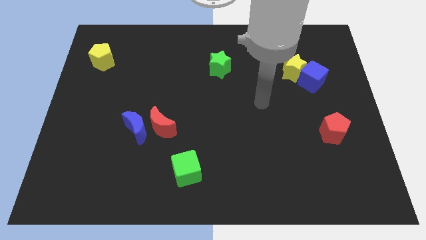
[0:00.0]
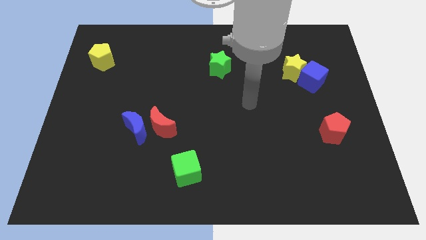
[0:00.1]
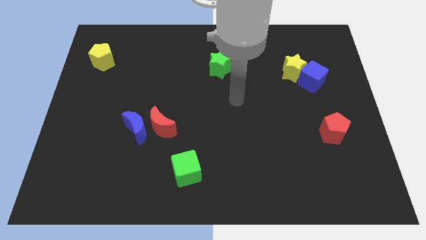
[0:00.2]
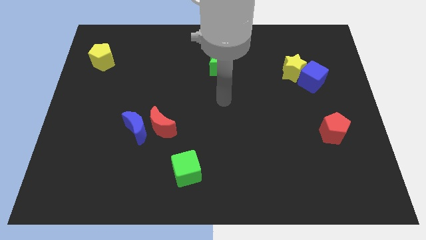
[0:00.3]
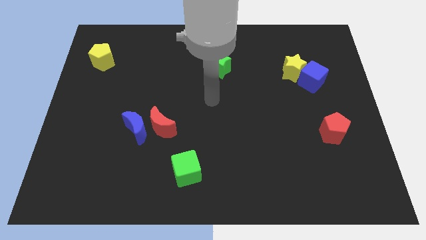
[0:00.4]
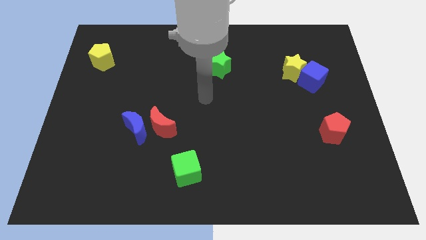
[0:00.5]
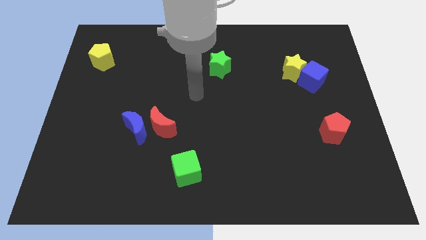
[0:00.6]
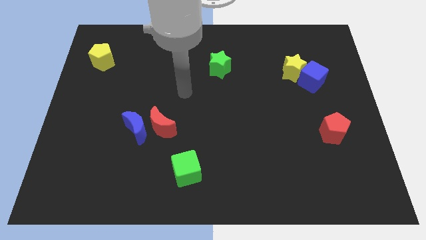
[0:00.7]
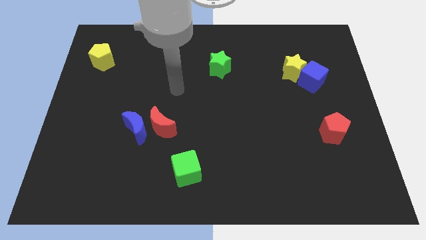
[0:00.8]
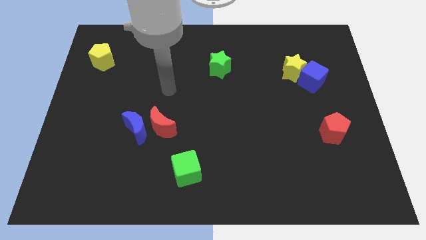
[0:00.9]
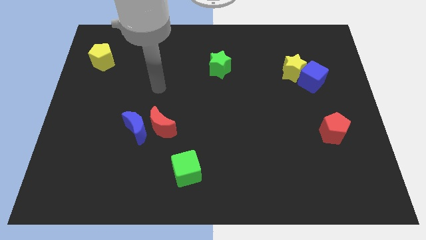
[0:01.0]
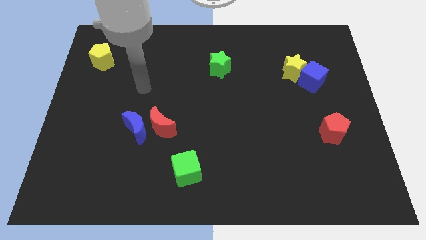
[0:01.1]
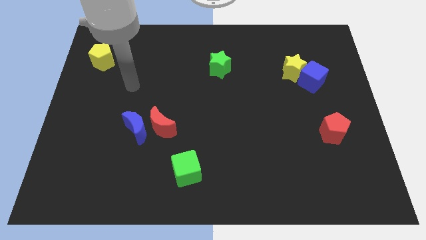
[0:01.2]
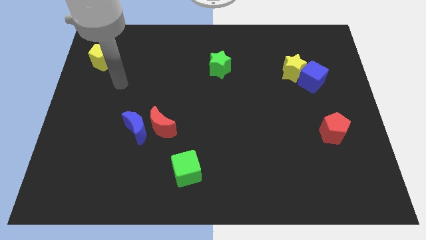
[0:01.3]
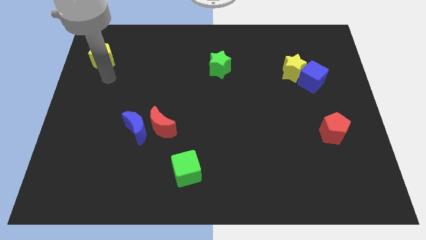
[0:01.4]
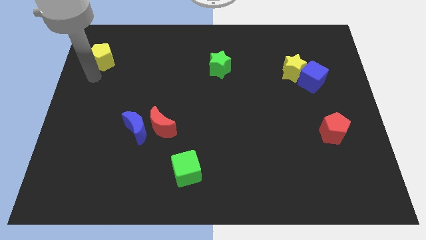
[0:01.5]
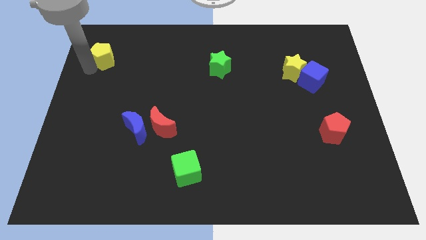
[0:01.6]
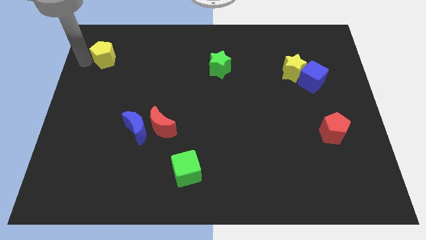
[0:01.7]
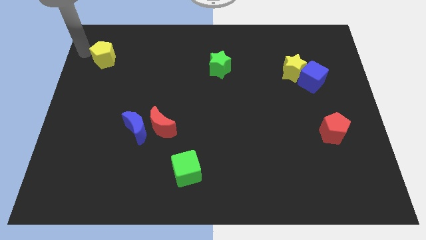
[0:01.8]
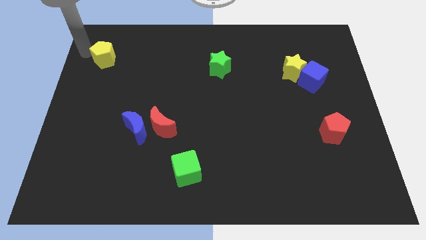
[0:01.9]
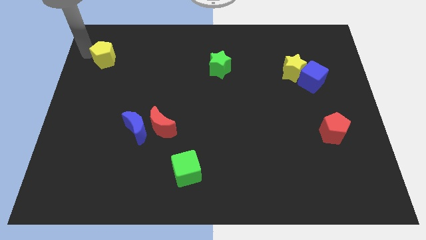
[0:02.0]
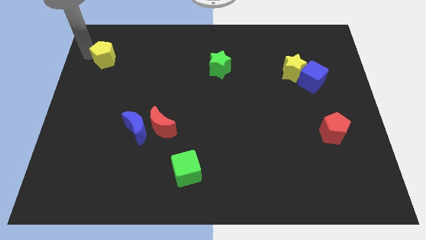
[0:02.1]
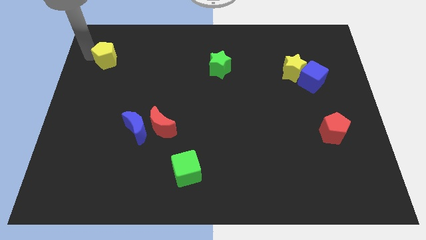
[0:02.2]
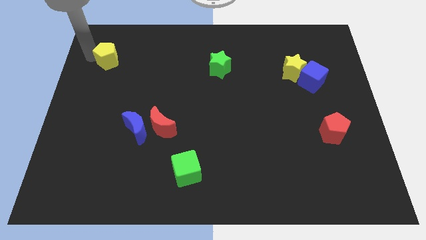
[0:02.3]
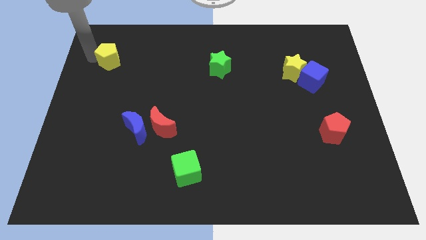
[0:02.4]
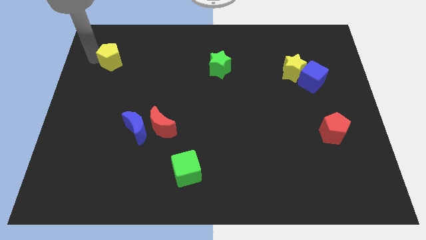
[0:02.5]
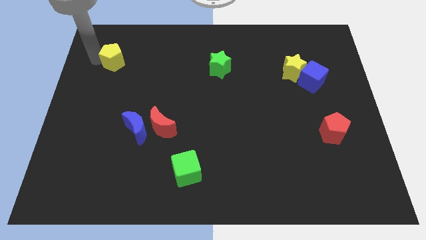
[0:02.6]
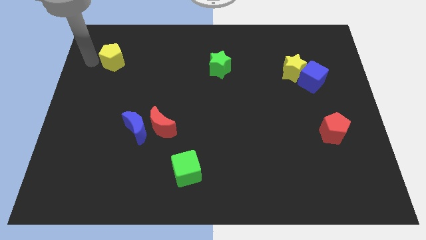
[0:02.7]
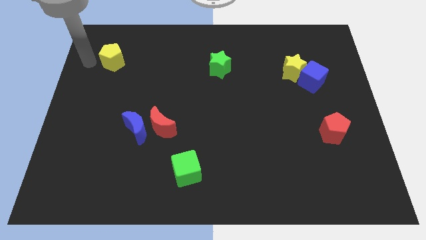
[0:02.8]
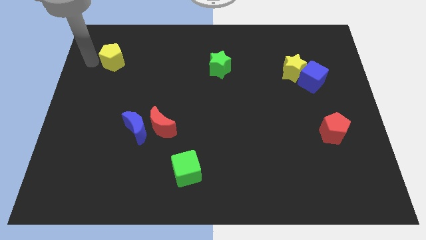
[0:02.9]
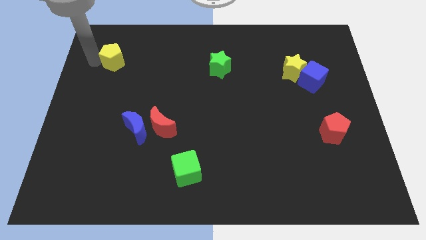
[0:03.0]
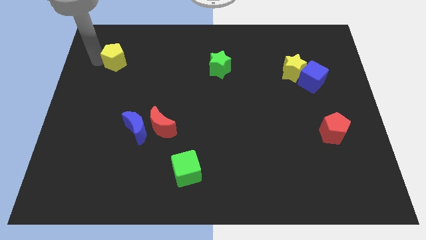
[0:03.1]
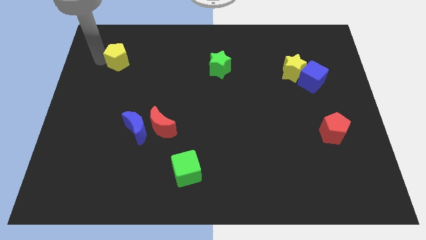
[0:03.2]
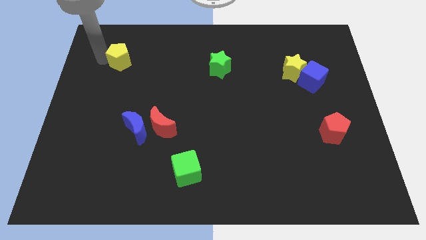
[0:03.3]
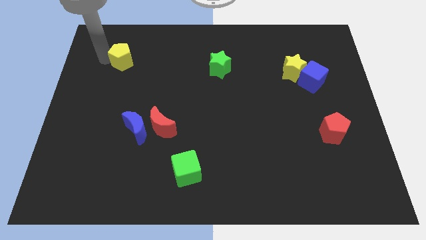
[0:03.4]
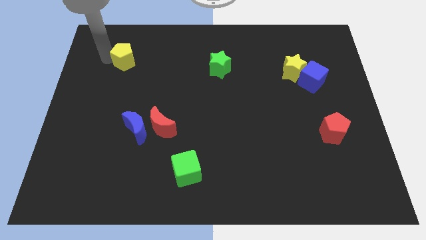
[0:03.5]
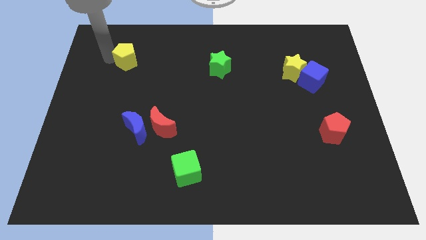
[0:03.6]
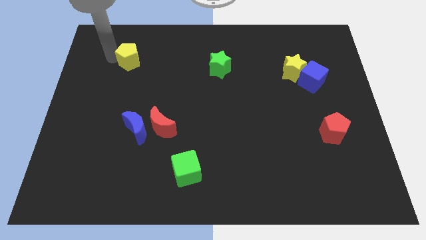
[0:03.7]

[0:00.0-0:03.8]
push the yellow pentagon to the right a bit

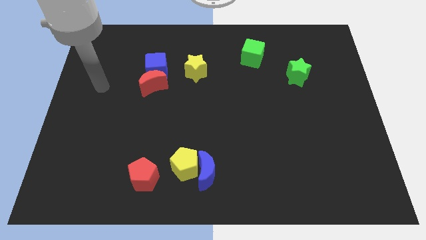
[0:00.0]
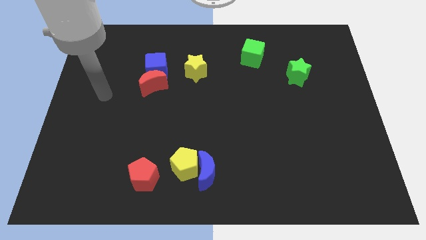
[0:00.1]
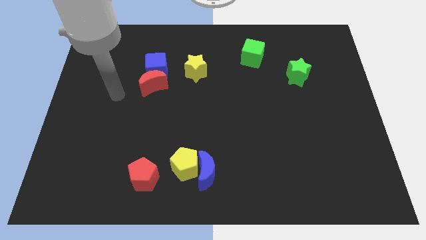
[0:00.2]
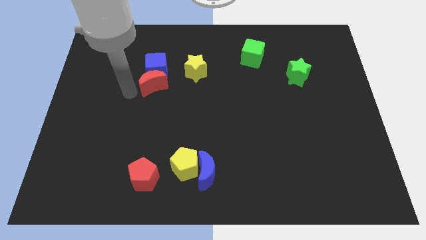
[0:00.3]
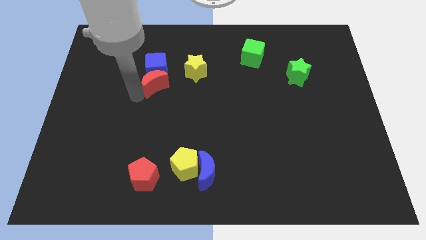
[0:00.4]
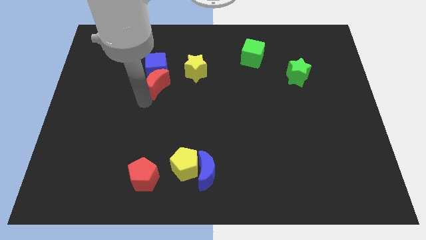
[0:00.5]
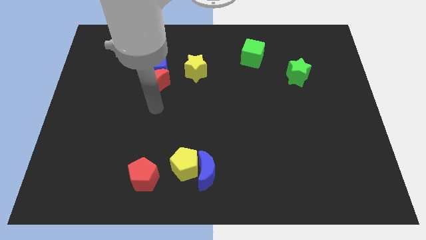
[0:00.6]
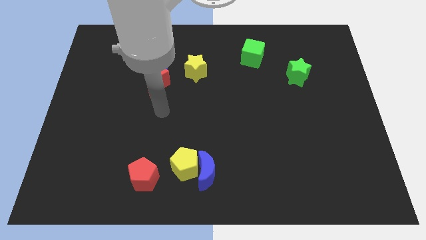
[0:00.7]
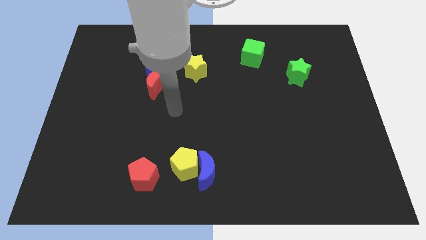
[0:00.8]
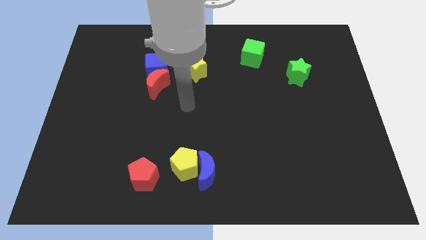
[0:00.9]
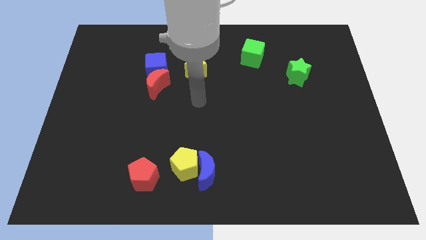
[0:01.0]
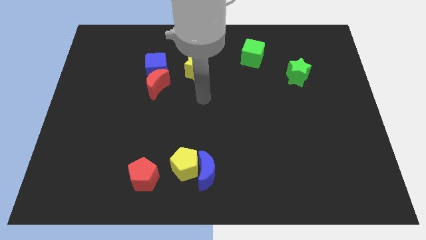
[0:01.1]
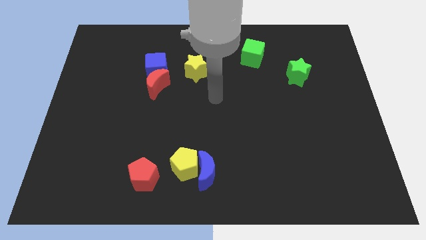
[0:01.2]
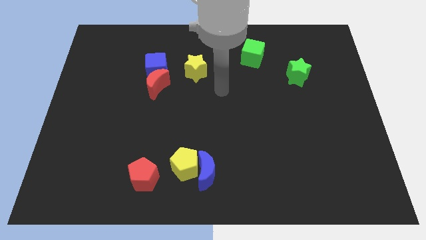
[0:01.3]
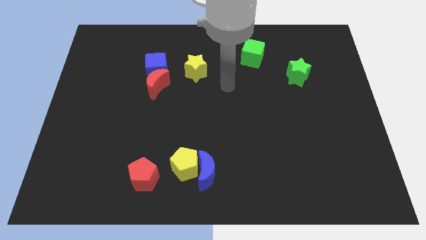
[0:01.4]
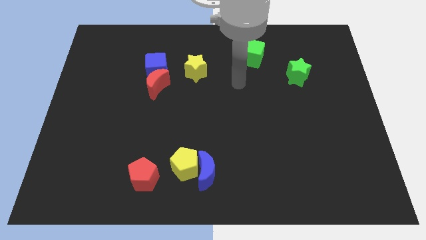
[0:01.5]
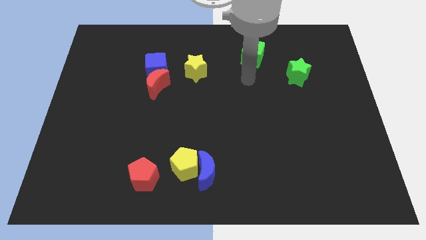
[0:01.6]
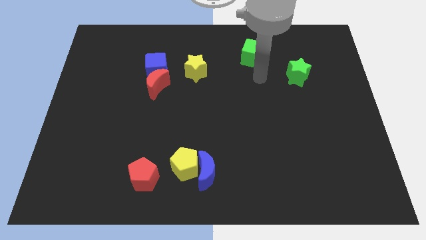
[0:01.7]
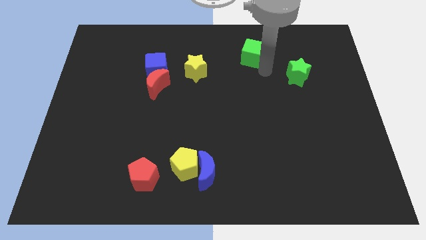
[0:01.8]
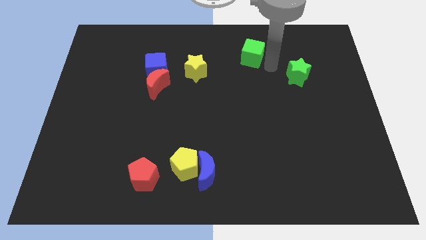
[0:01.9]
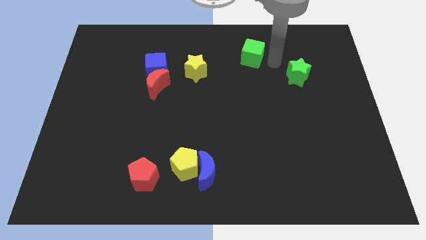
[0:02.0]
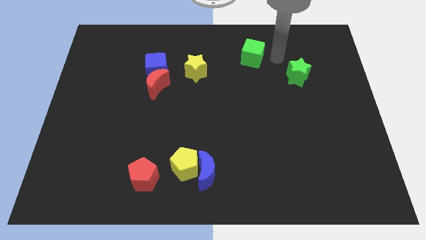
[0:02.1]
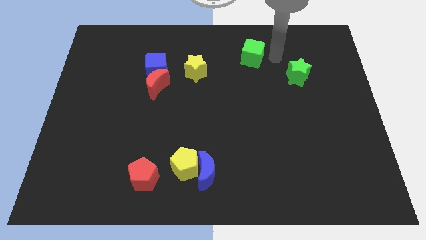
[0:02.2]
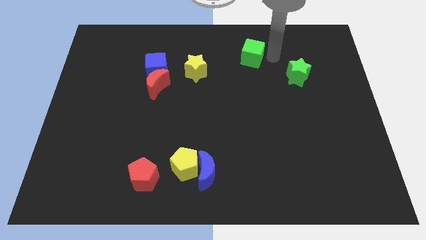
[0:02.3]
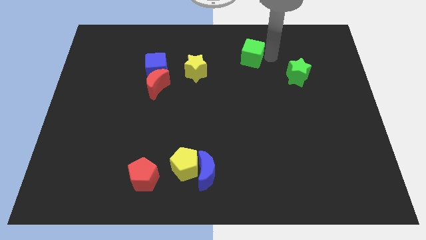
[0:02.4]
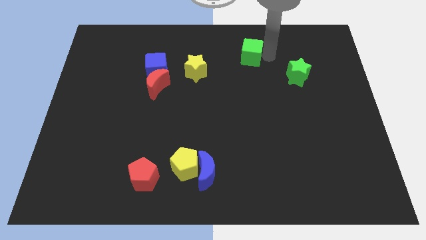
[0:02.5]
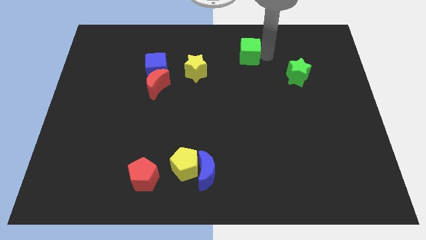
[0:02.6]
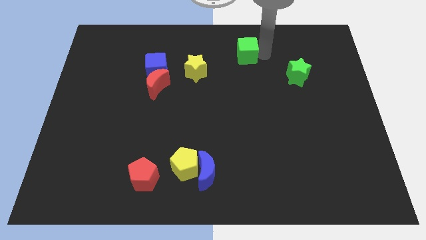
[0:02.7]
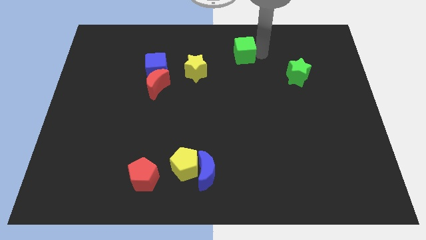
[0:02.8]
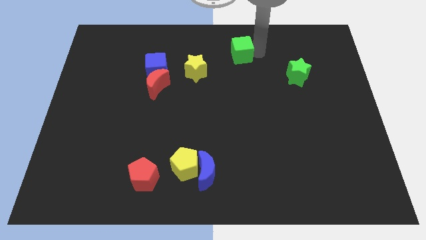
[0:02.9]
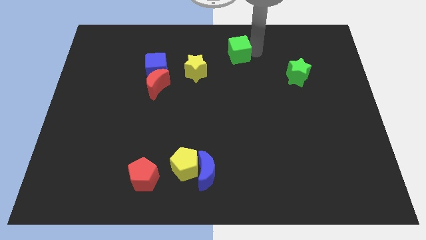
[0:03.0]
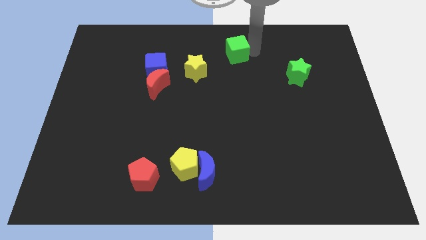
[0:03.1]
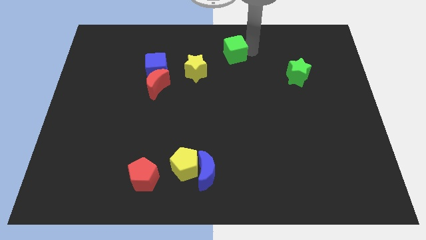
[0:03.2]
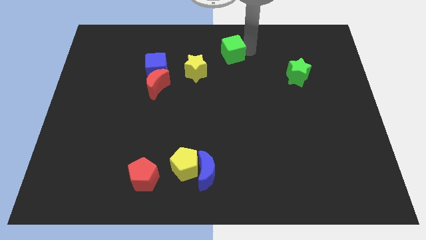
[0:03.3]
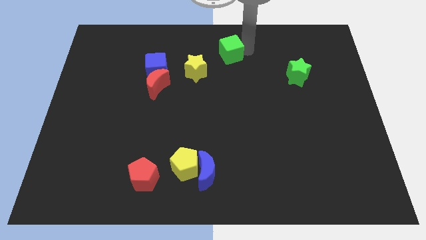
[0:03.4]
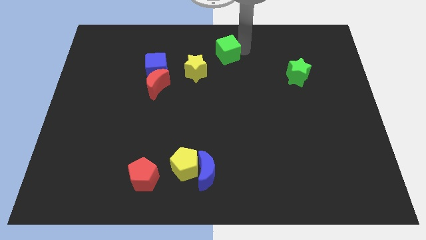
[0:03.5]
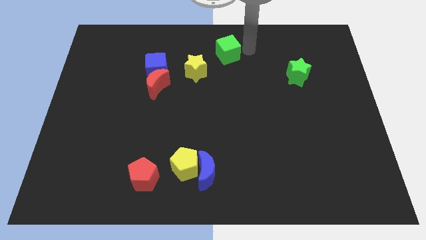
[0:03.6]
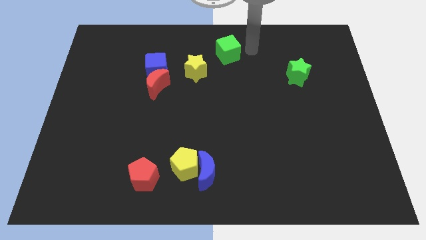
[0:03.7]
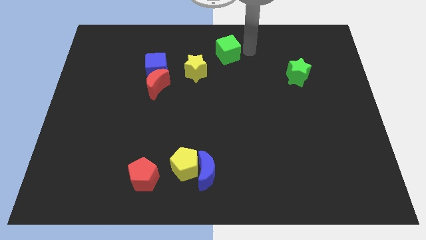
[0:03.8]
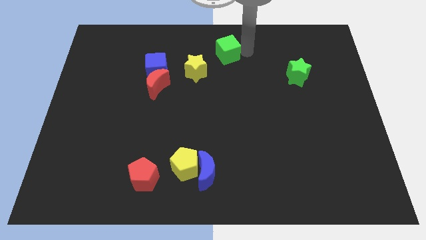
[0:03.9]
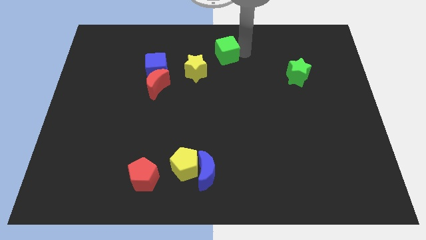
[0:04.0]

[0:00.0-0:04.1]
move the green cube slightly left
